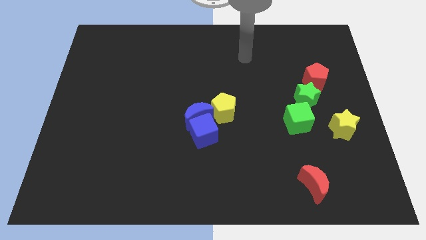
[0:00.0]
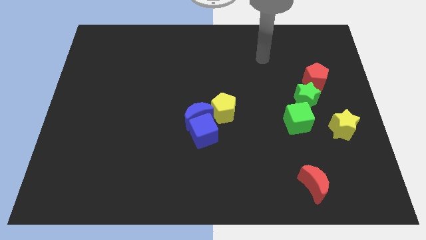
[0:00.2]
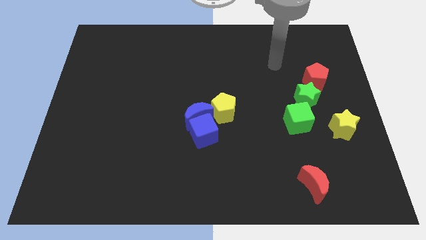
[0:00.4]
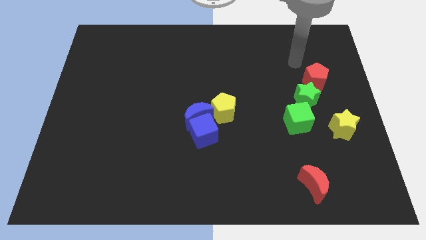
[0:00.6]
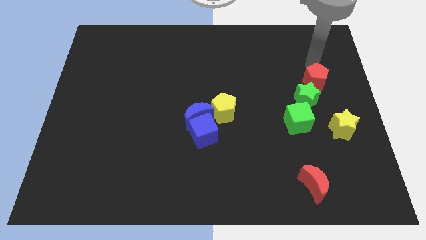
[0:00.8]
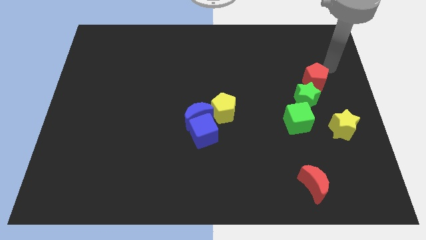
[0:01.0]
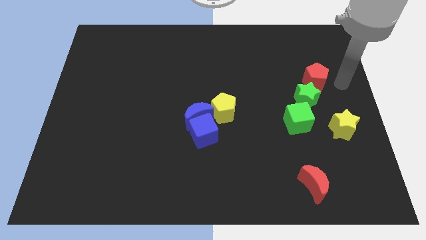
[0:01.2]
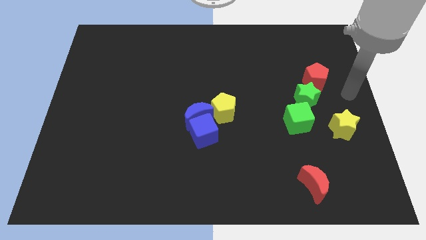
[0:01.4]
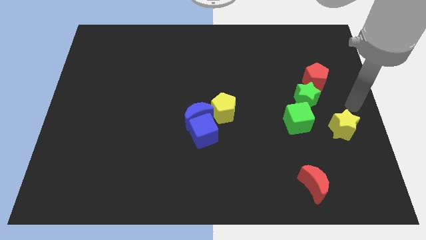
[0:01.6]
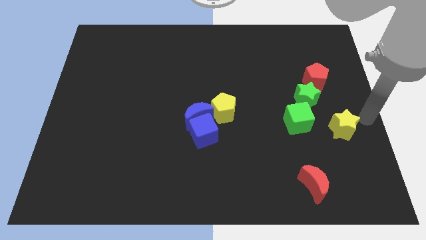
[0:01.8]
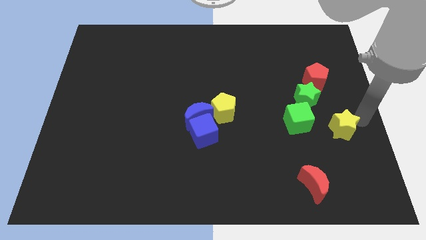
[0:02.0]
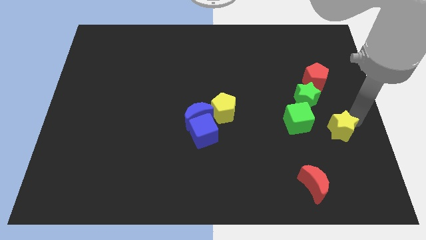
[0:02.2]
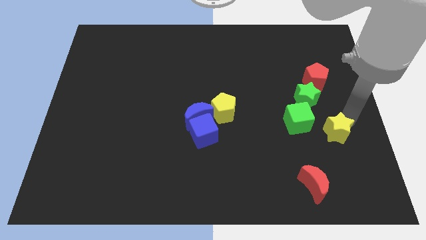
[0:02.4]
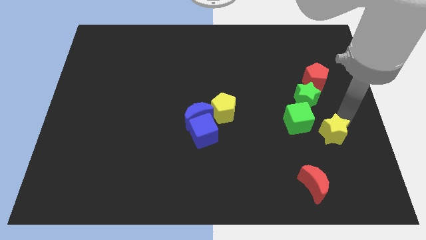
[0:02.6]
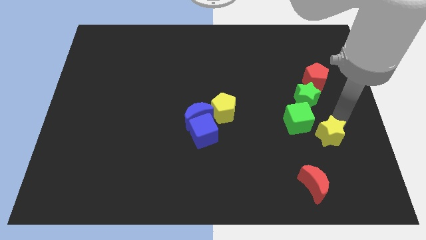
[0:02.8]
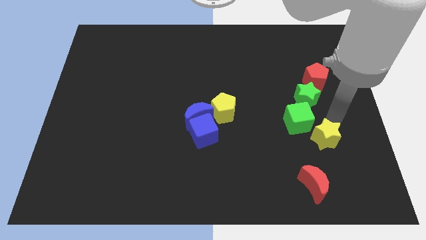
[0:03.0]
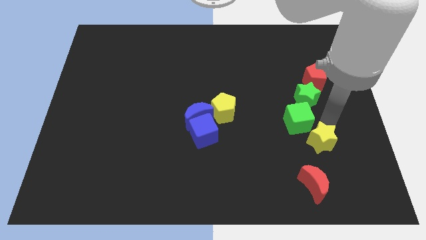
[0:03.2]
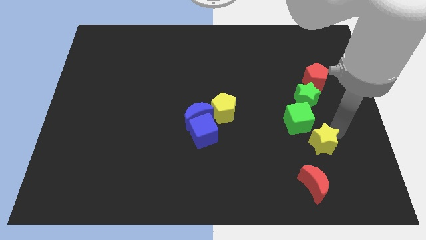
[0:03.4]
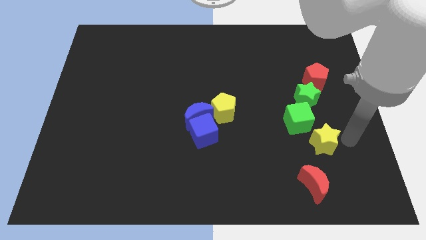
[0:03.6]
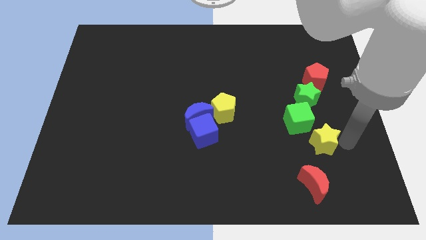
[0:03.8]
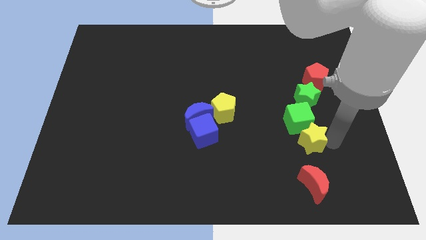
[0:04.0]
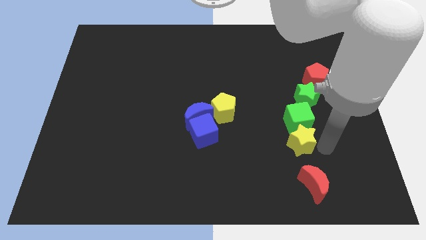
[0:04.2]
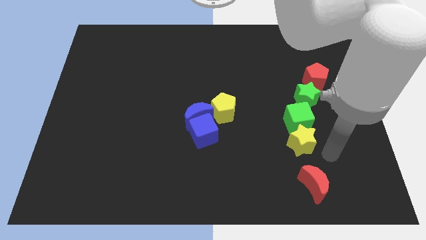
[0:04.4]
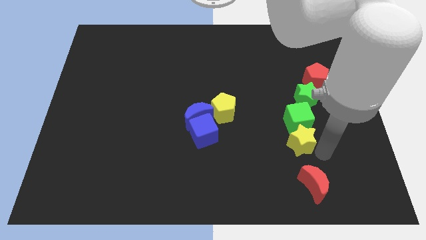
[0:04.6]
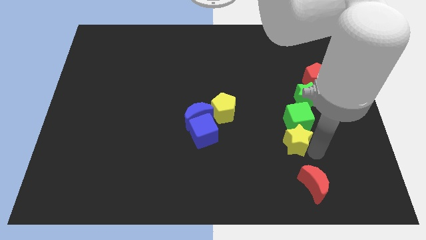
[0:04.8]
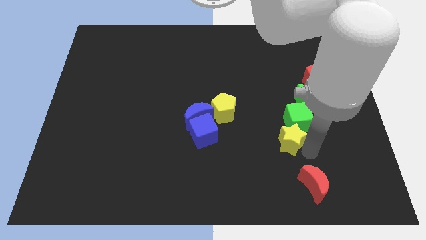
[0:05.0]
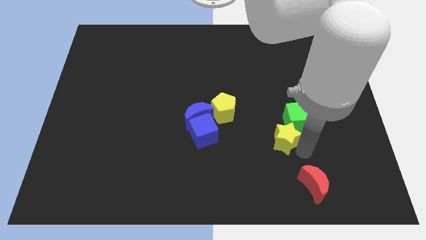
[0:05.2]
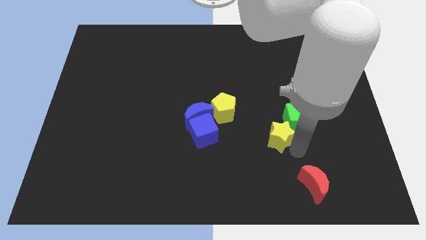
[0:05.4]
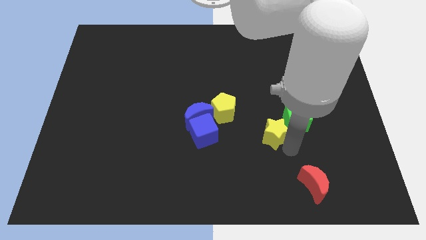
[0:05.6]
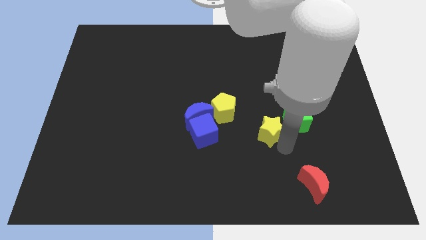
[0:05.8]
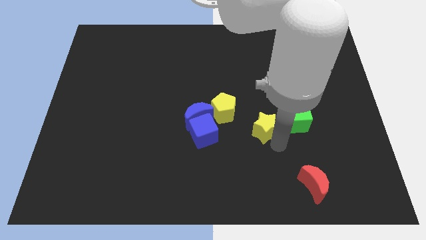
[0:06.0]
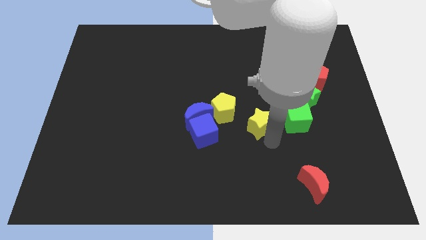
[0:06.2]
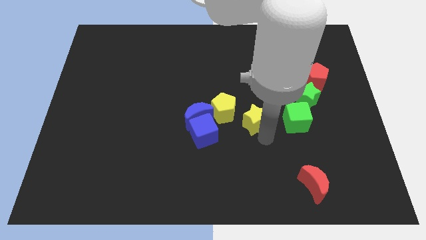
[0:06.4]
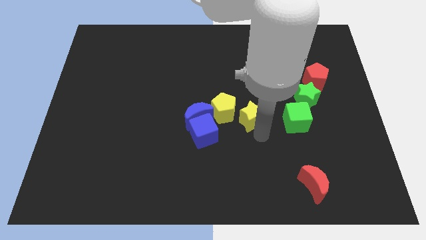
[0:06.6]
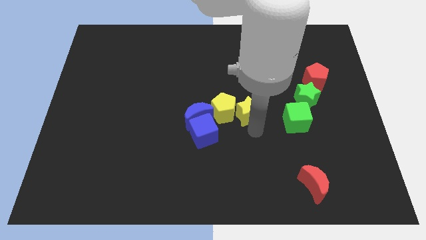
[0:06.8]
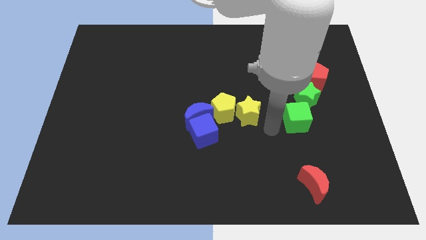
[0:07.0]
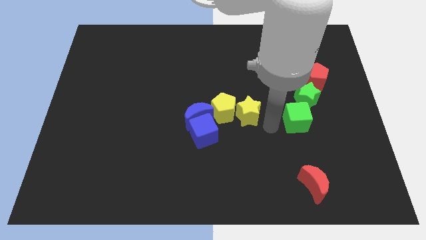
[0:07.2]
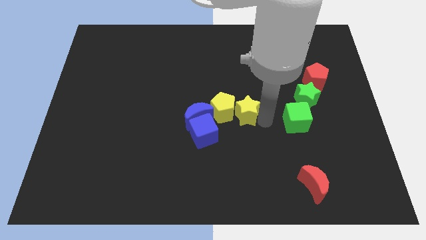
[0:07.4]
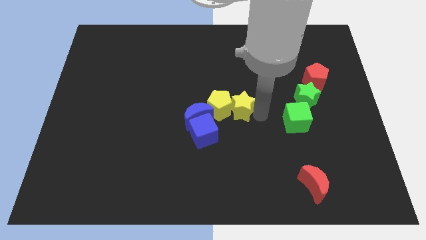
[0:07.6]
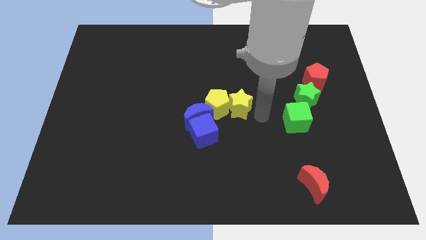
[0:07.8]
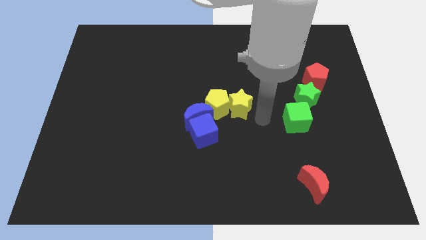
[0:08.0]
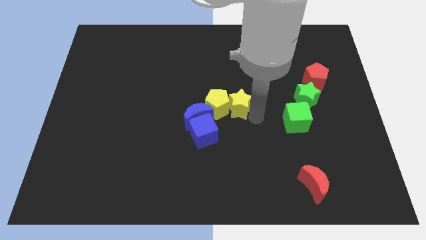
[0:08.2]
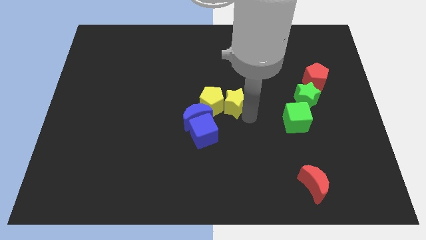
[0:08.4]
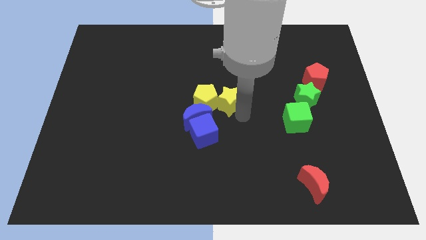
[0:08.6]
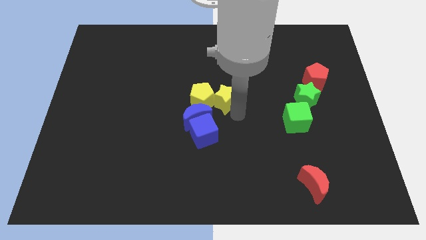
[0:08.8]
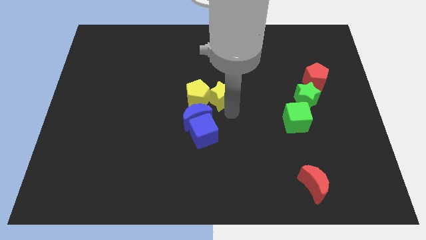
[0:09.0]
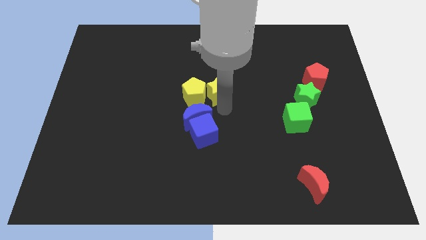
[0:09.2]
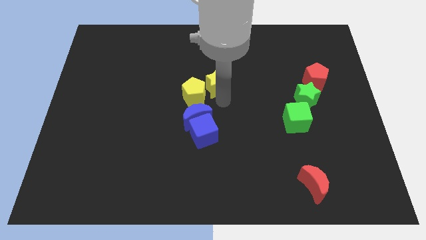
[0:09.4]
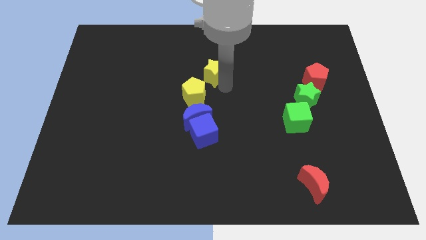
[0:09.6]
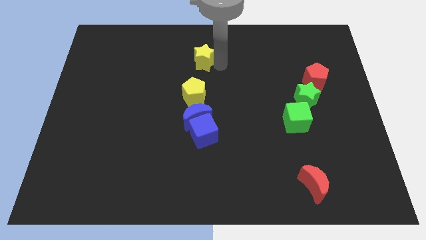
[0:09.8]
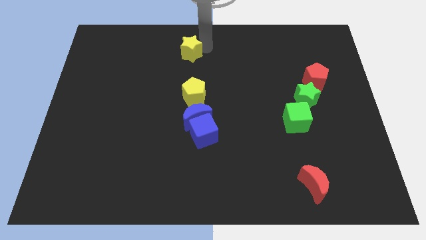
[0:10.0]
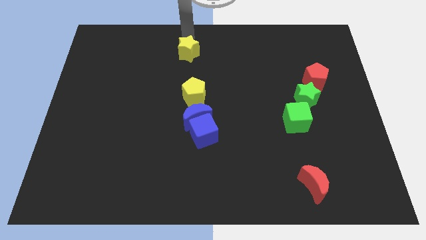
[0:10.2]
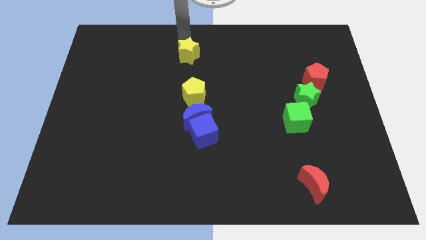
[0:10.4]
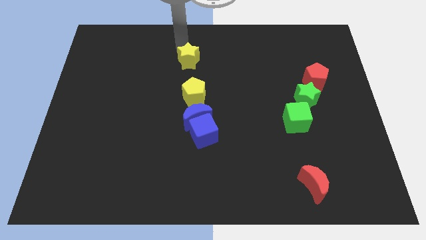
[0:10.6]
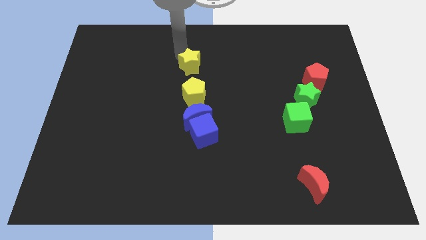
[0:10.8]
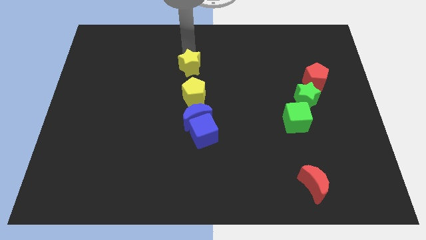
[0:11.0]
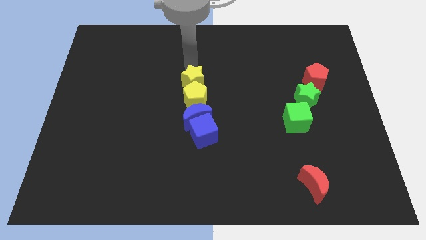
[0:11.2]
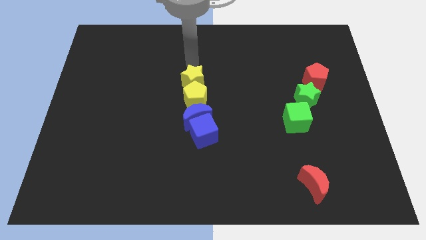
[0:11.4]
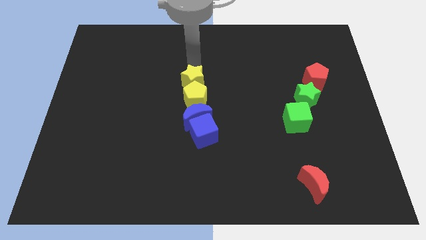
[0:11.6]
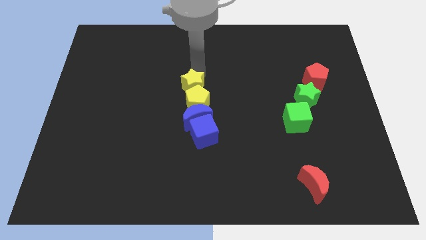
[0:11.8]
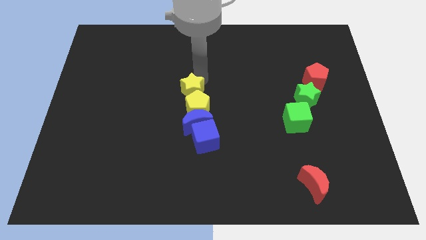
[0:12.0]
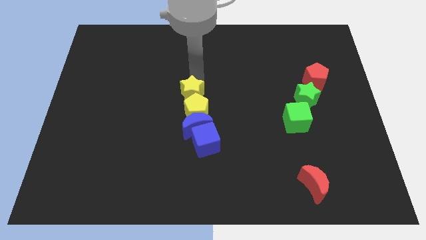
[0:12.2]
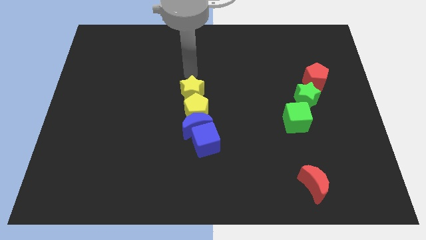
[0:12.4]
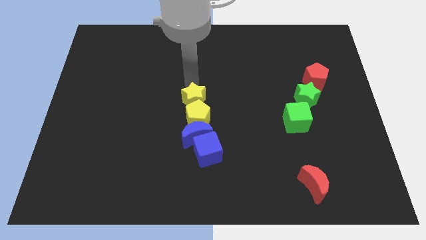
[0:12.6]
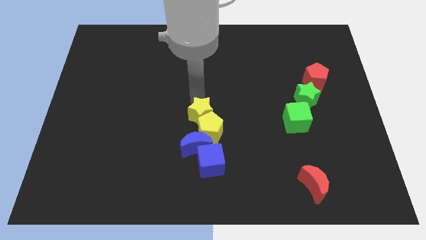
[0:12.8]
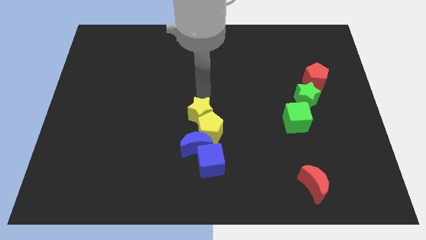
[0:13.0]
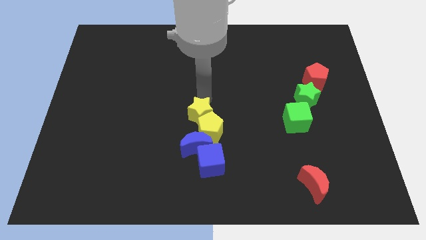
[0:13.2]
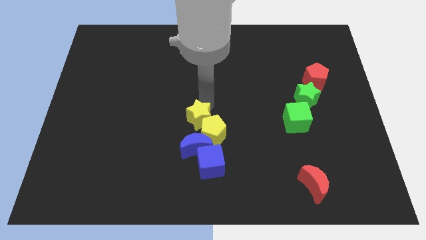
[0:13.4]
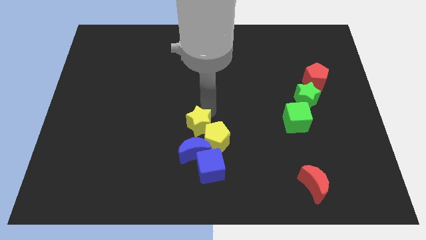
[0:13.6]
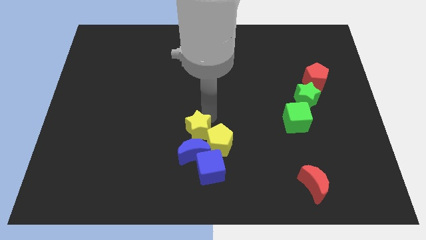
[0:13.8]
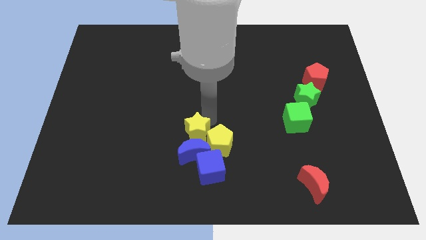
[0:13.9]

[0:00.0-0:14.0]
put the yellow star to the blue moon
